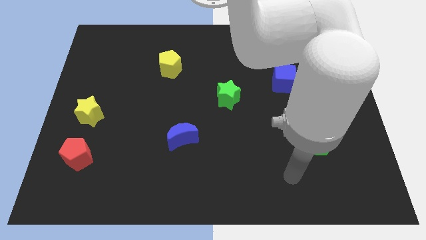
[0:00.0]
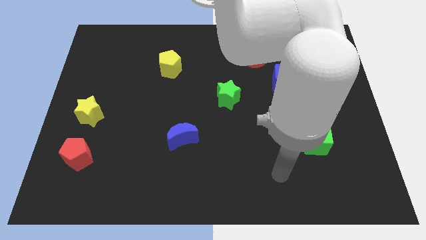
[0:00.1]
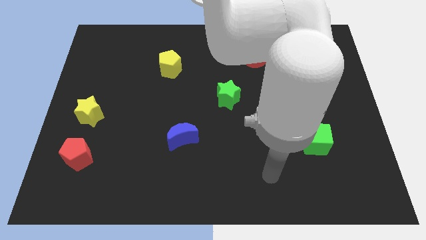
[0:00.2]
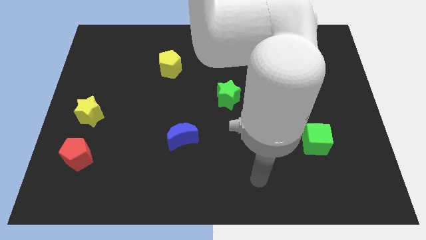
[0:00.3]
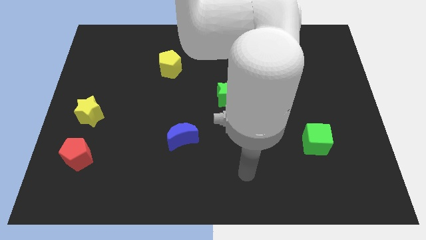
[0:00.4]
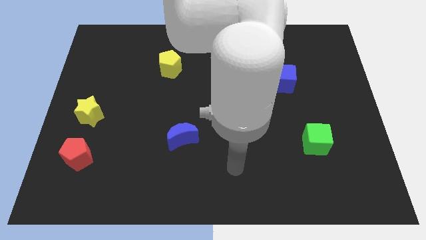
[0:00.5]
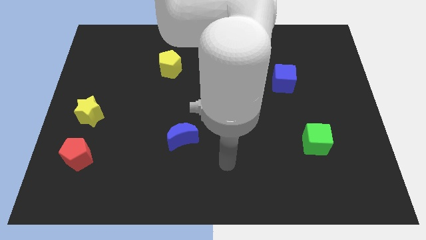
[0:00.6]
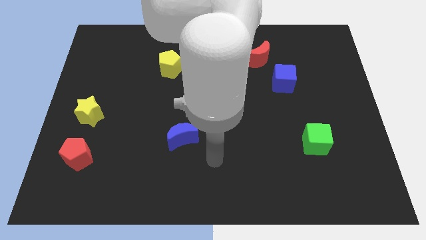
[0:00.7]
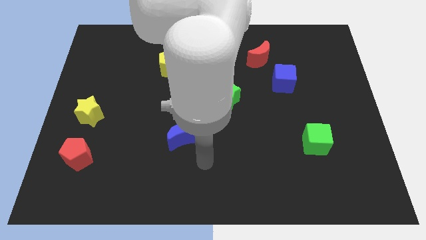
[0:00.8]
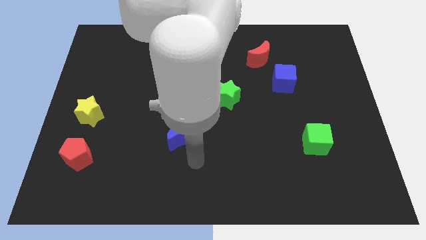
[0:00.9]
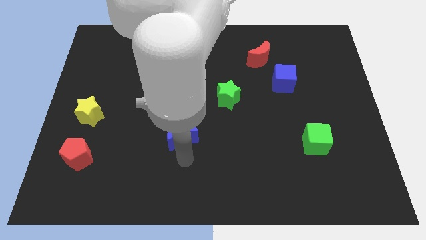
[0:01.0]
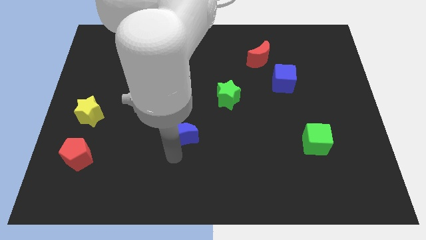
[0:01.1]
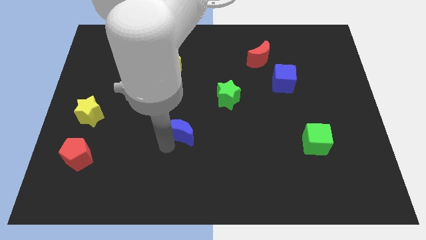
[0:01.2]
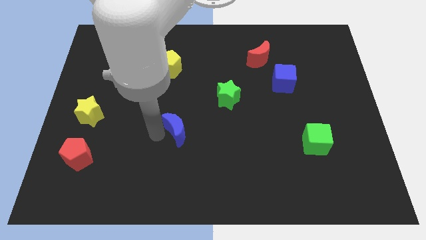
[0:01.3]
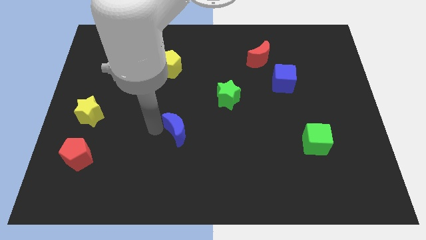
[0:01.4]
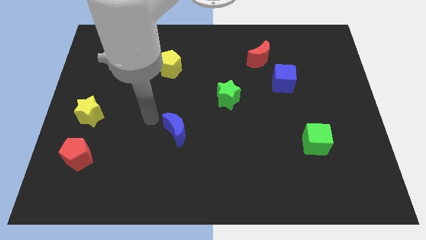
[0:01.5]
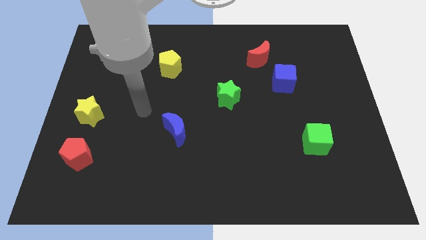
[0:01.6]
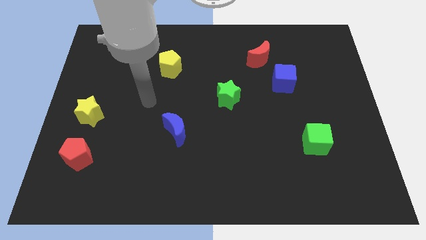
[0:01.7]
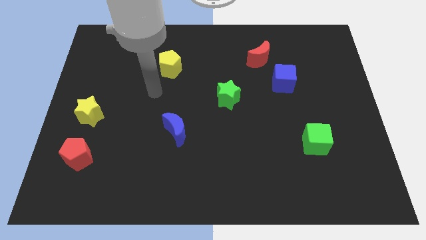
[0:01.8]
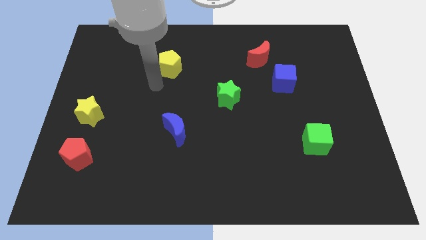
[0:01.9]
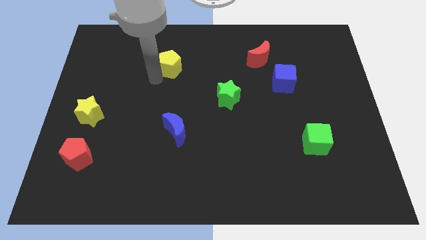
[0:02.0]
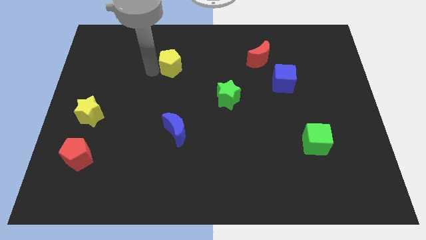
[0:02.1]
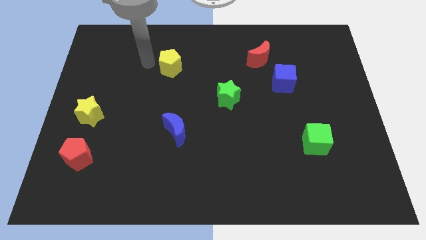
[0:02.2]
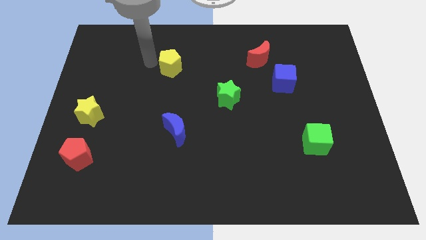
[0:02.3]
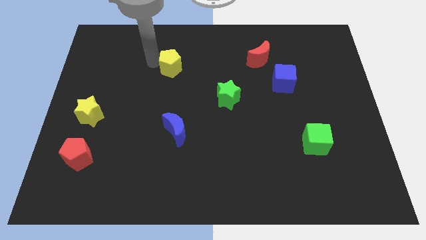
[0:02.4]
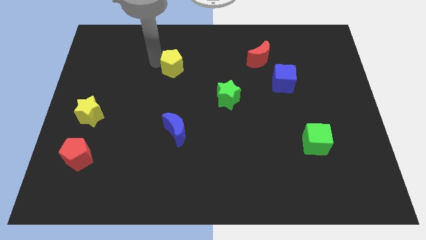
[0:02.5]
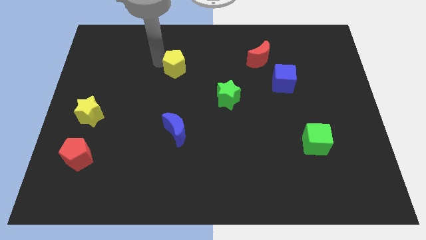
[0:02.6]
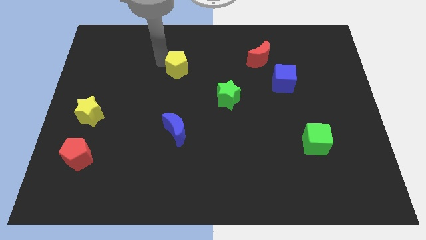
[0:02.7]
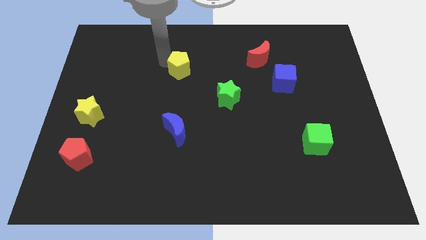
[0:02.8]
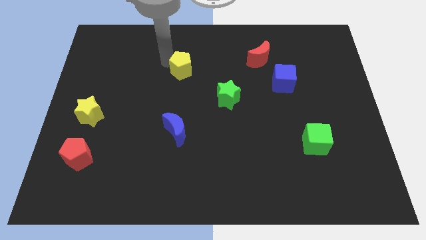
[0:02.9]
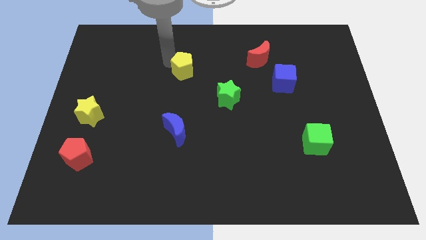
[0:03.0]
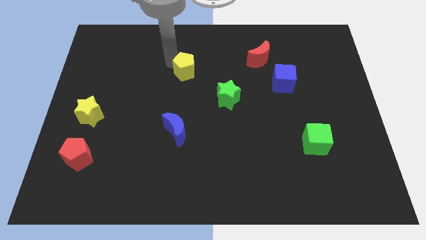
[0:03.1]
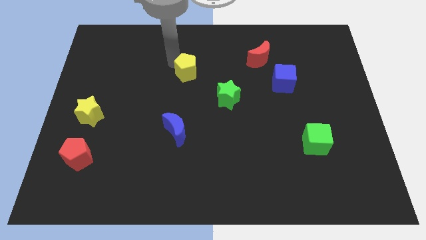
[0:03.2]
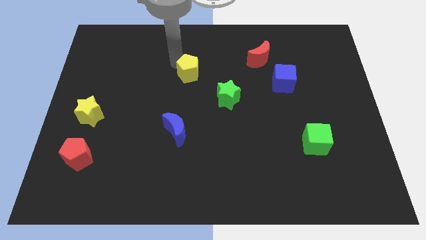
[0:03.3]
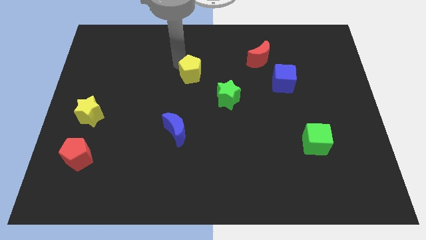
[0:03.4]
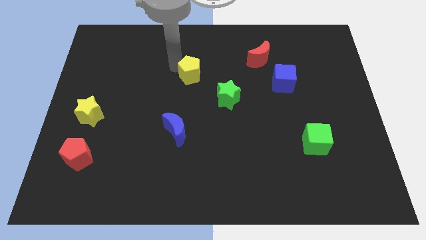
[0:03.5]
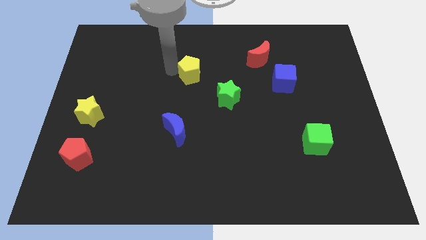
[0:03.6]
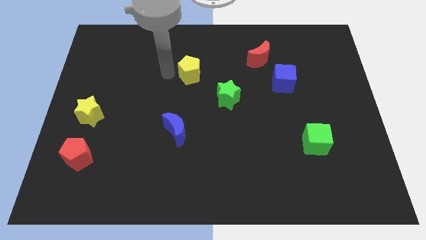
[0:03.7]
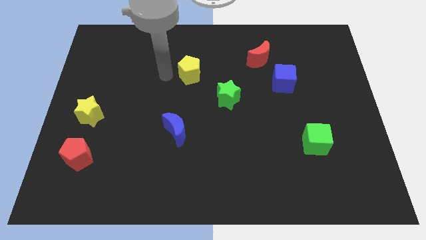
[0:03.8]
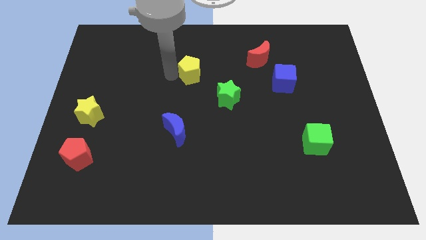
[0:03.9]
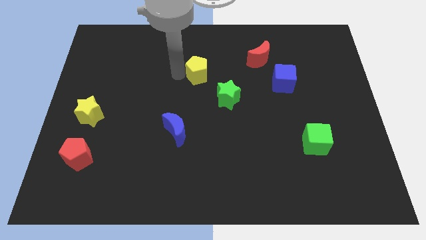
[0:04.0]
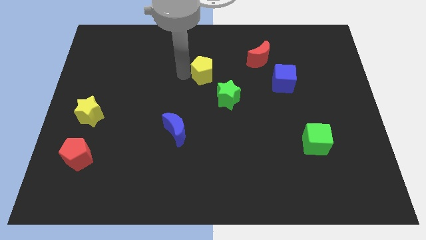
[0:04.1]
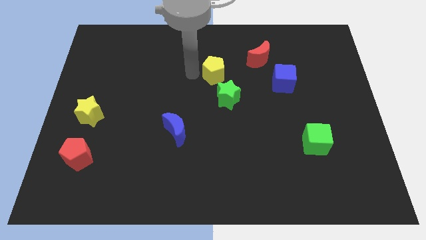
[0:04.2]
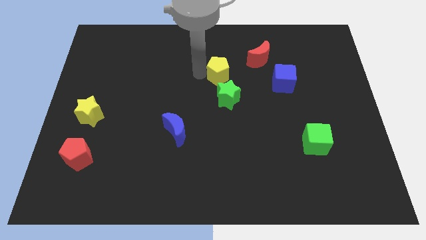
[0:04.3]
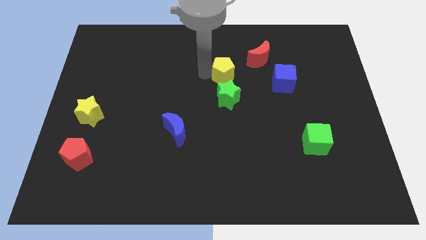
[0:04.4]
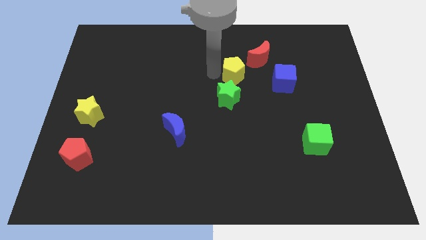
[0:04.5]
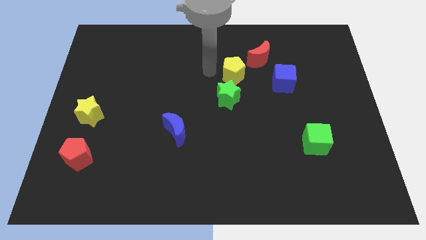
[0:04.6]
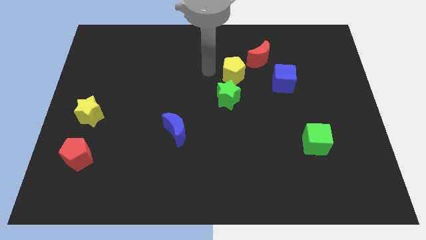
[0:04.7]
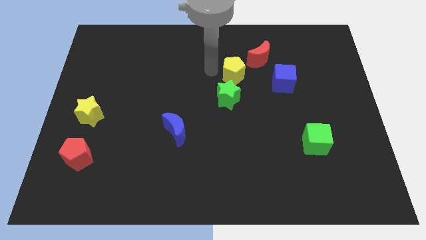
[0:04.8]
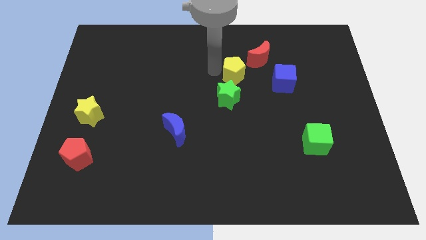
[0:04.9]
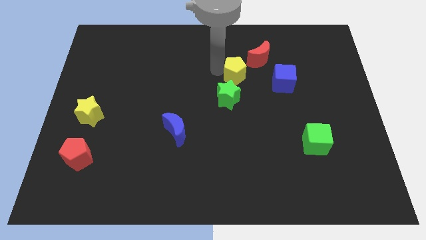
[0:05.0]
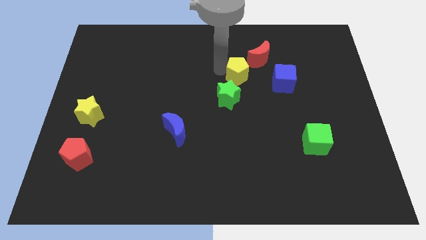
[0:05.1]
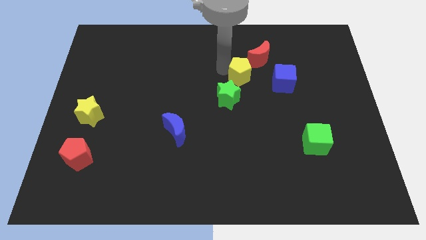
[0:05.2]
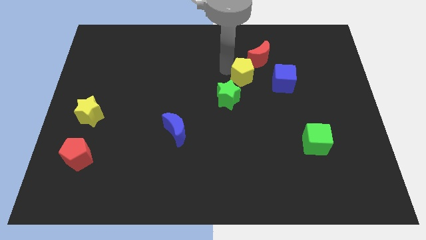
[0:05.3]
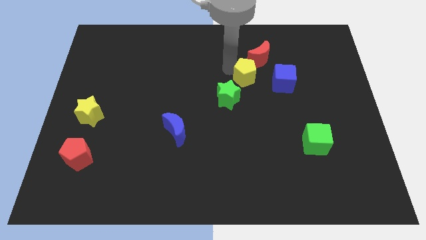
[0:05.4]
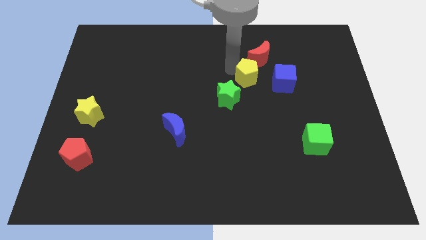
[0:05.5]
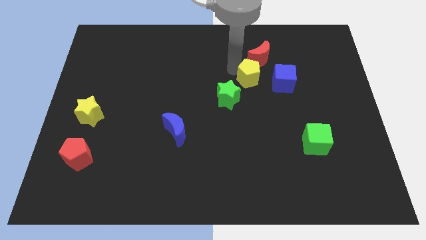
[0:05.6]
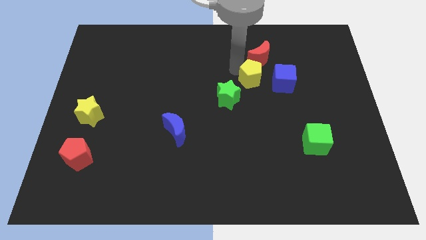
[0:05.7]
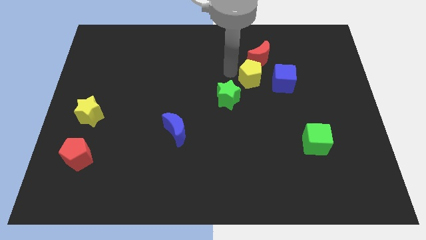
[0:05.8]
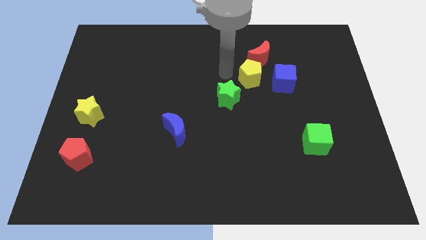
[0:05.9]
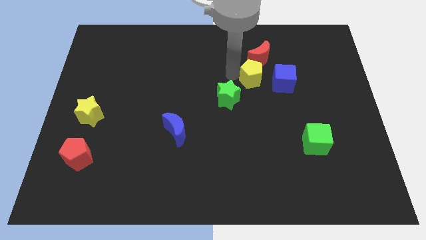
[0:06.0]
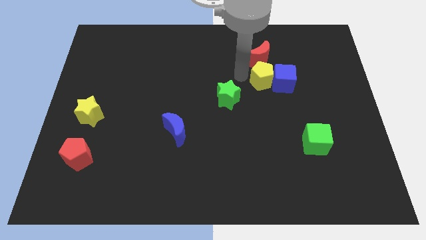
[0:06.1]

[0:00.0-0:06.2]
slide the yellow pentagon close to the blue cube

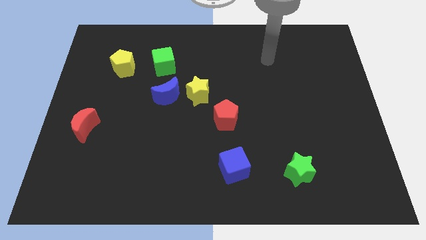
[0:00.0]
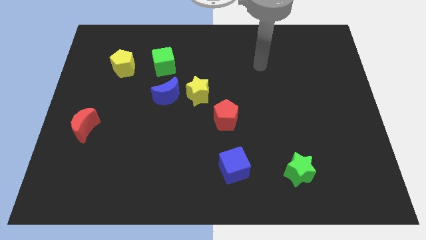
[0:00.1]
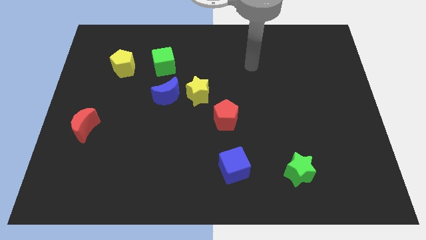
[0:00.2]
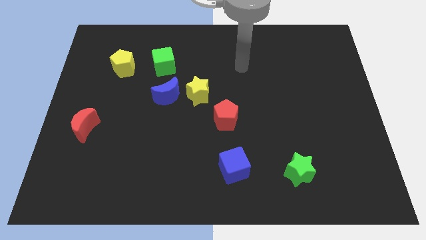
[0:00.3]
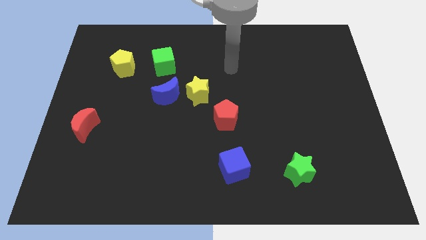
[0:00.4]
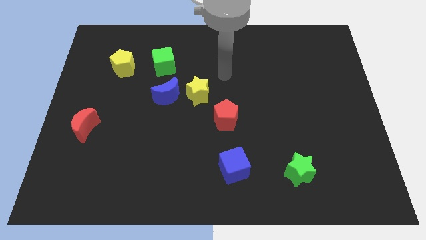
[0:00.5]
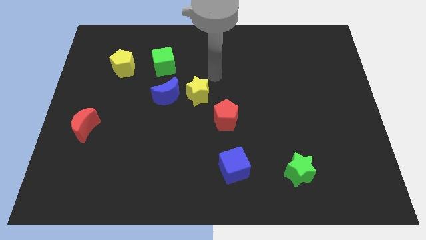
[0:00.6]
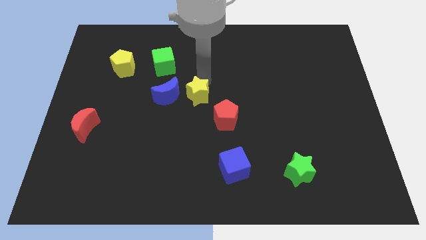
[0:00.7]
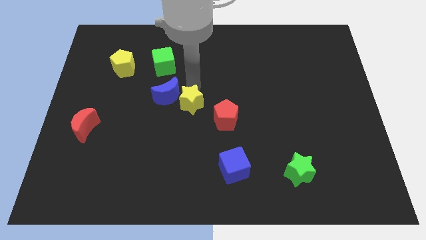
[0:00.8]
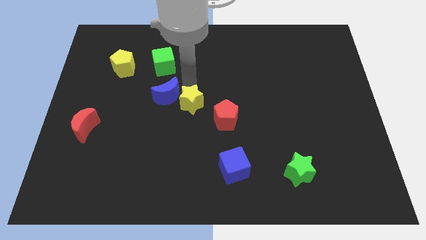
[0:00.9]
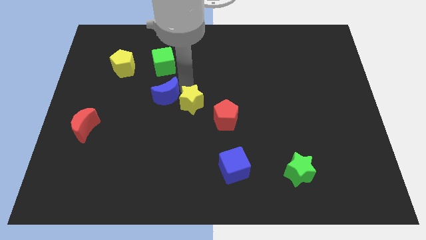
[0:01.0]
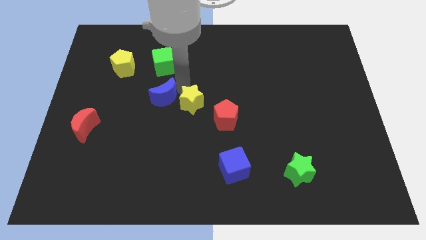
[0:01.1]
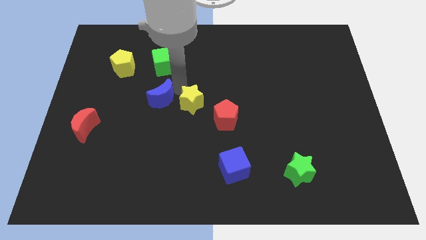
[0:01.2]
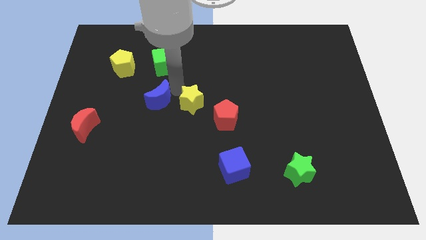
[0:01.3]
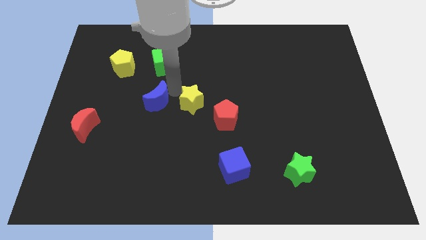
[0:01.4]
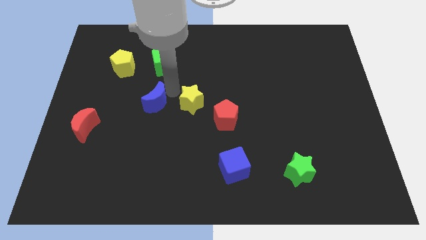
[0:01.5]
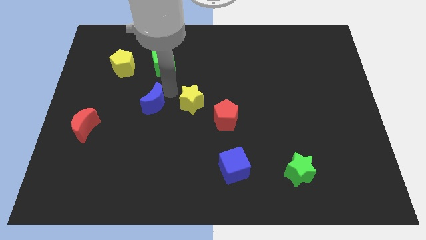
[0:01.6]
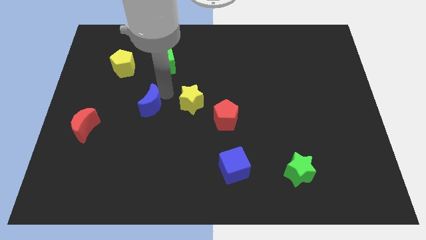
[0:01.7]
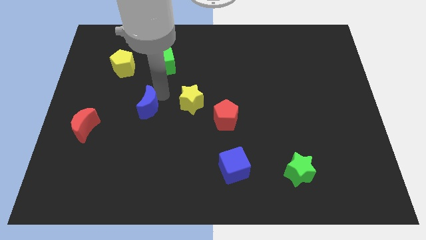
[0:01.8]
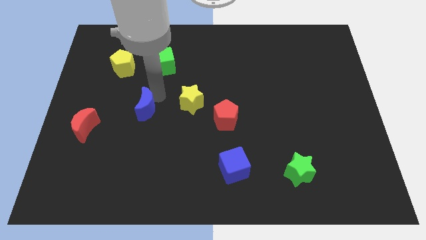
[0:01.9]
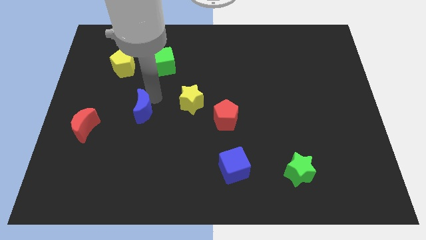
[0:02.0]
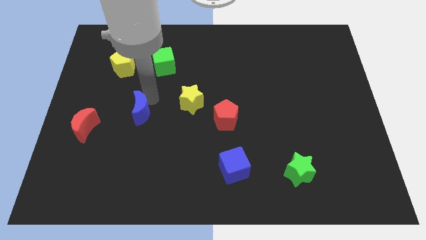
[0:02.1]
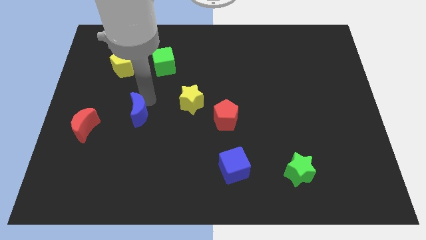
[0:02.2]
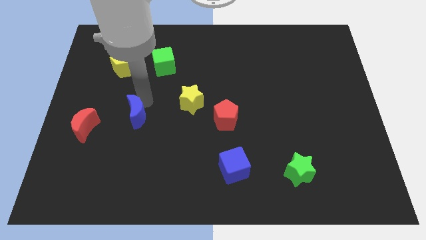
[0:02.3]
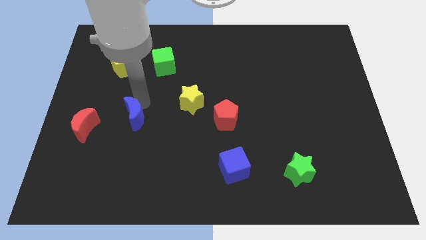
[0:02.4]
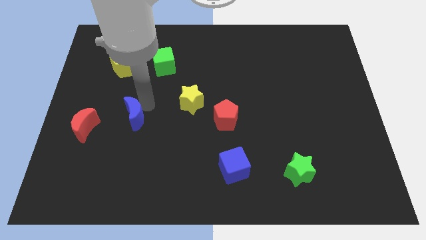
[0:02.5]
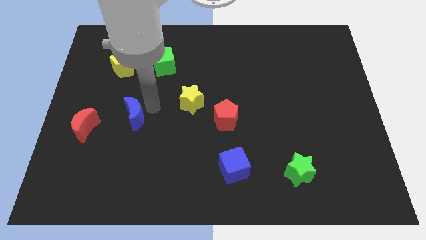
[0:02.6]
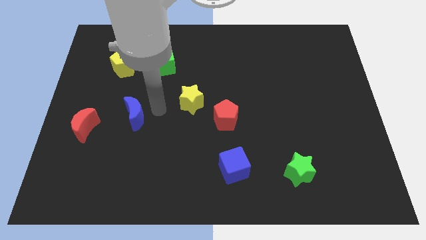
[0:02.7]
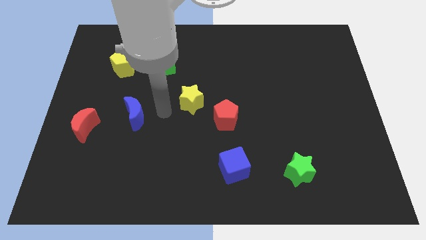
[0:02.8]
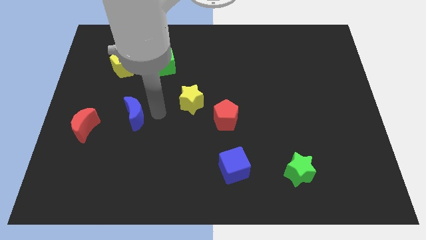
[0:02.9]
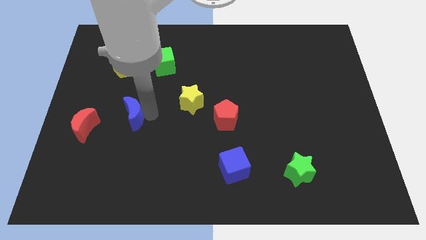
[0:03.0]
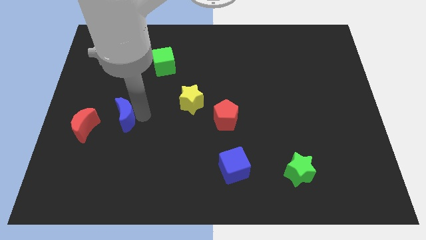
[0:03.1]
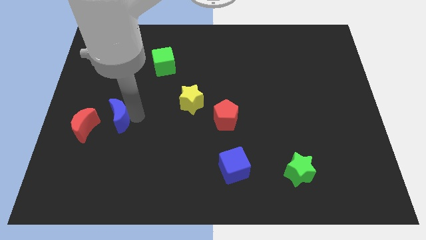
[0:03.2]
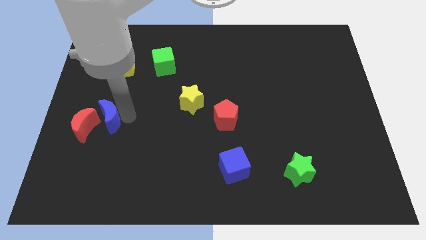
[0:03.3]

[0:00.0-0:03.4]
move the blue moon to the red moon
